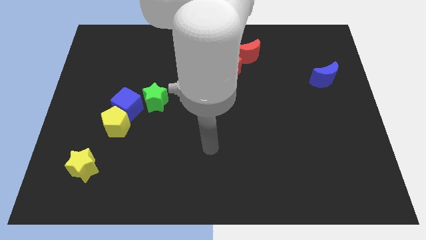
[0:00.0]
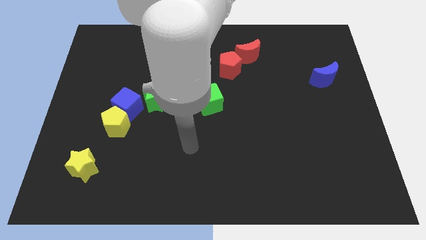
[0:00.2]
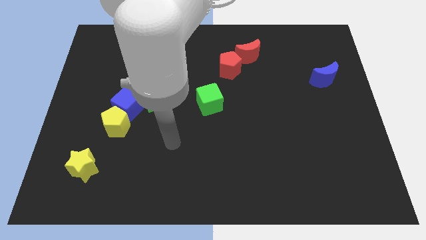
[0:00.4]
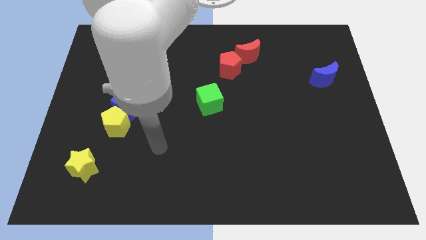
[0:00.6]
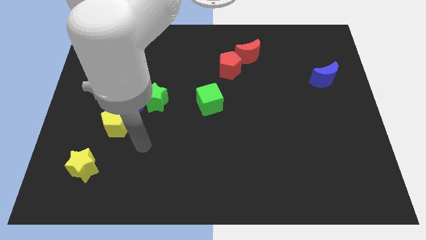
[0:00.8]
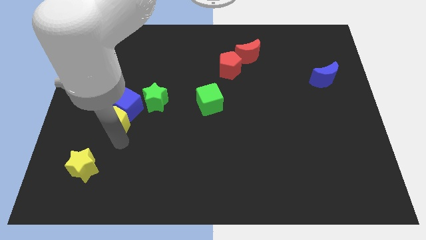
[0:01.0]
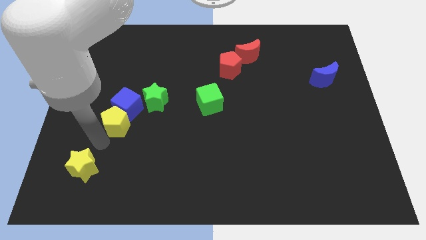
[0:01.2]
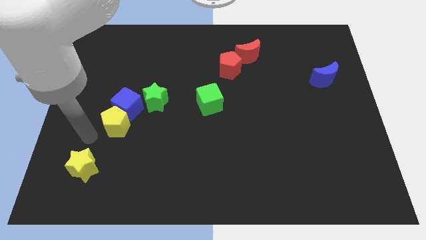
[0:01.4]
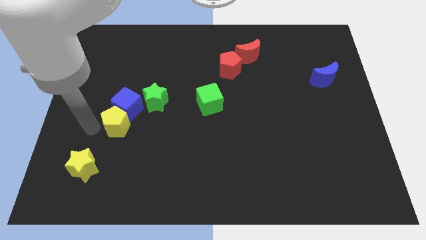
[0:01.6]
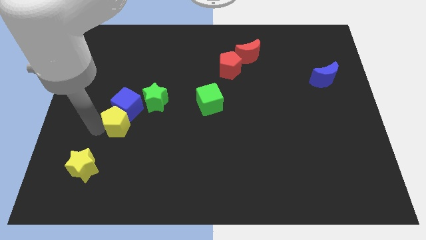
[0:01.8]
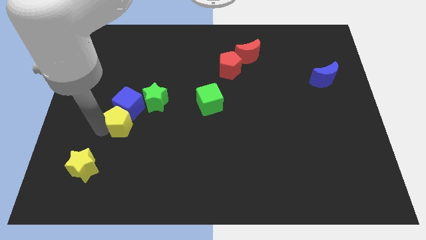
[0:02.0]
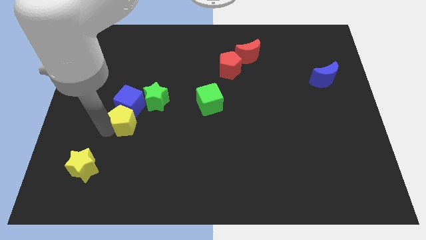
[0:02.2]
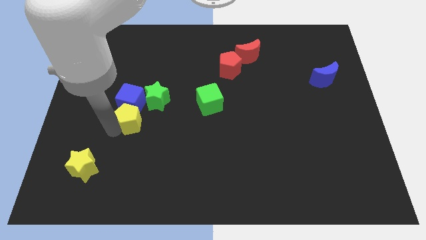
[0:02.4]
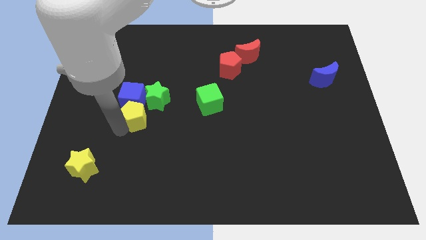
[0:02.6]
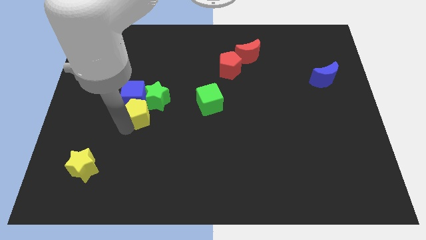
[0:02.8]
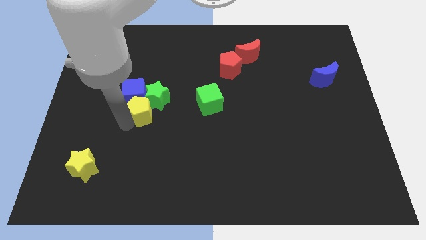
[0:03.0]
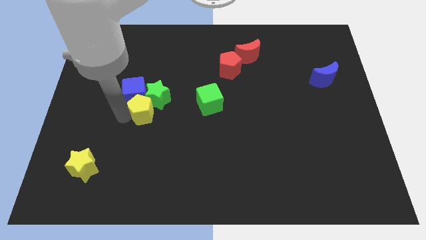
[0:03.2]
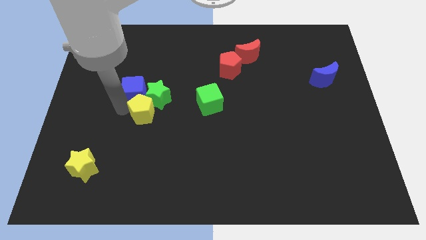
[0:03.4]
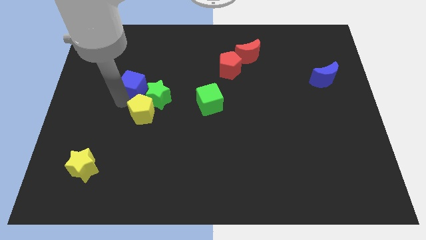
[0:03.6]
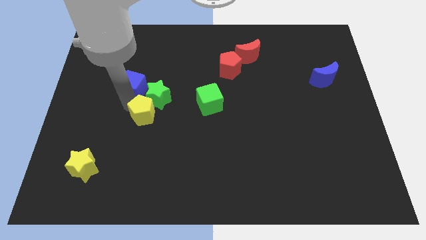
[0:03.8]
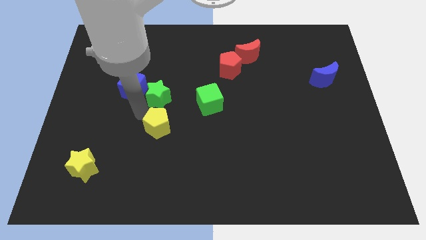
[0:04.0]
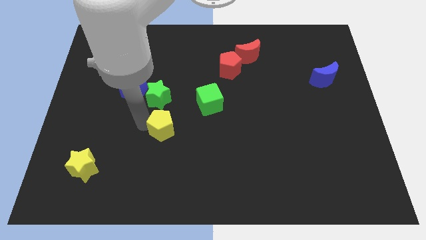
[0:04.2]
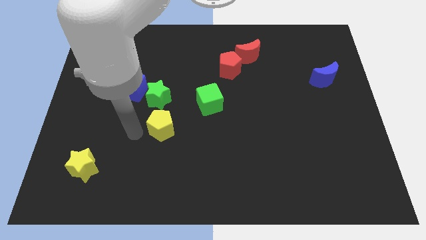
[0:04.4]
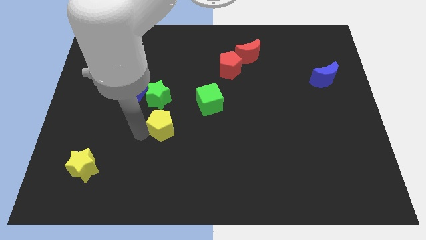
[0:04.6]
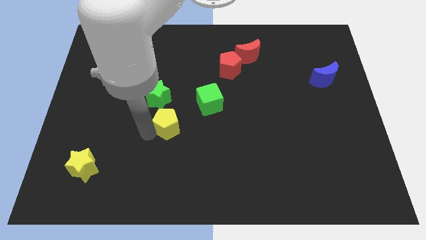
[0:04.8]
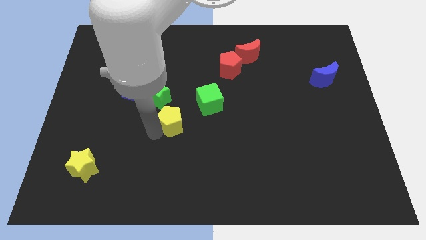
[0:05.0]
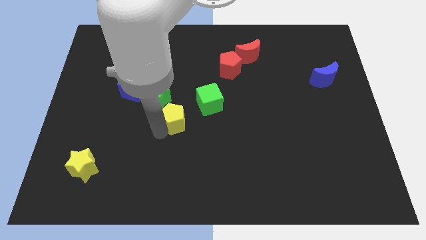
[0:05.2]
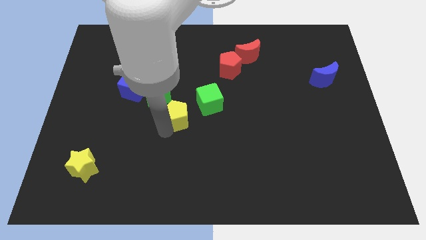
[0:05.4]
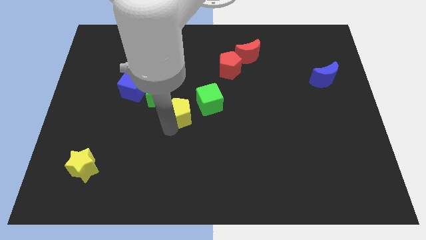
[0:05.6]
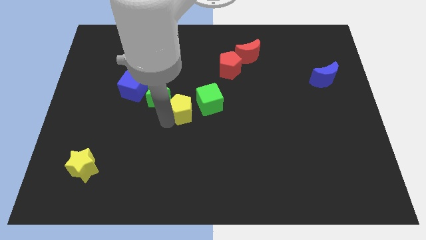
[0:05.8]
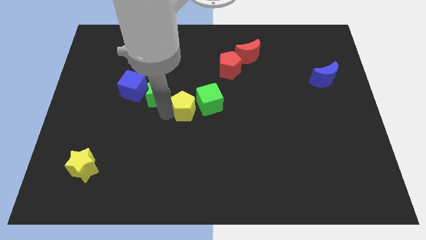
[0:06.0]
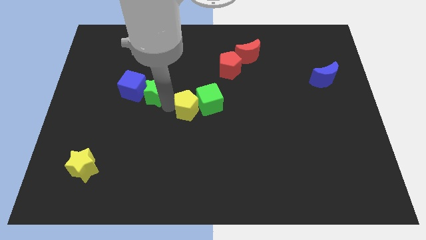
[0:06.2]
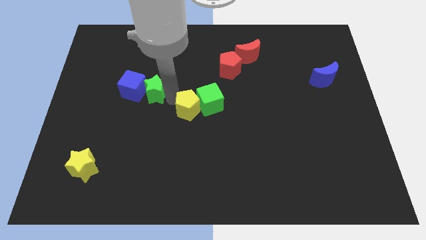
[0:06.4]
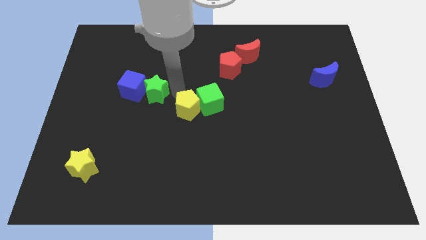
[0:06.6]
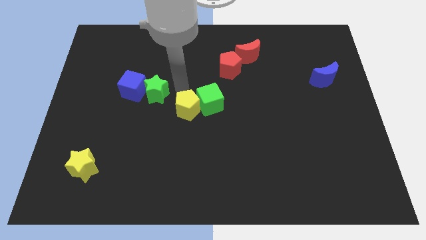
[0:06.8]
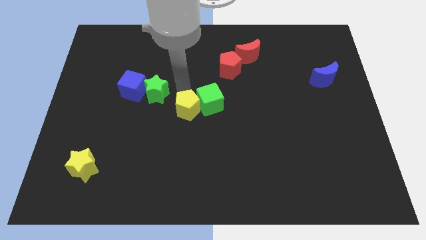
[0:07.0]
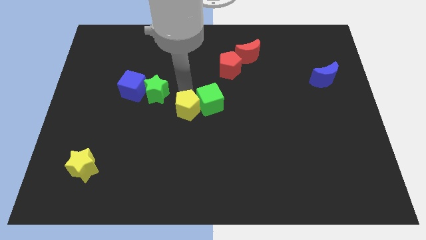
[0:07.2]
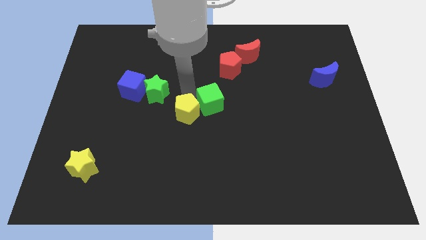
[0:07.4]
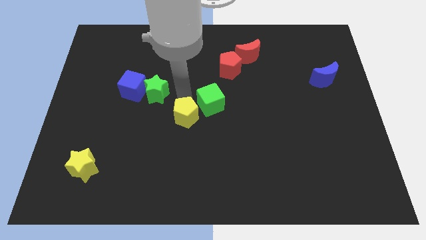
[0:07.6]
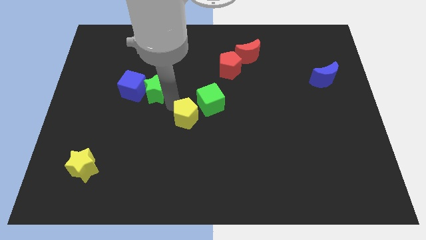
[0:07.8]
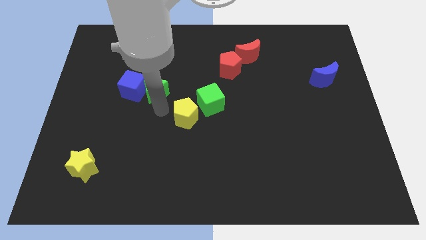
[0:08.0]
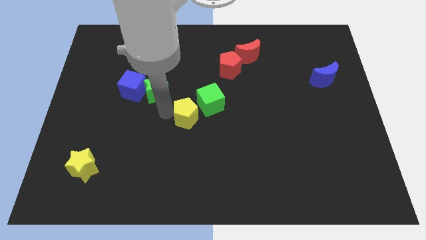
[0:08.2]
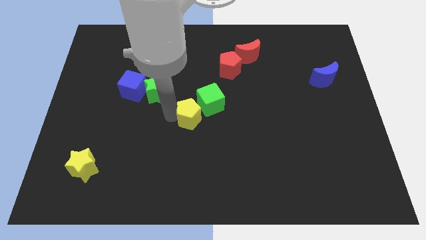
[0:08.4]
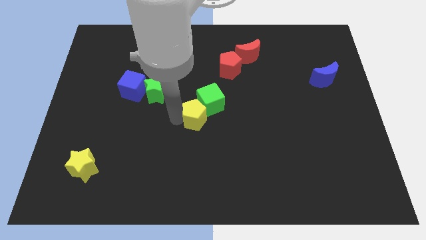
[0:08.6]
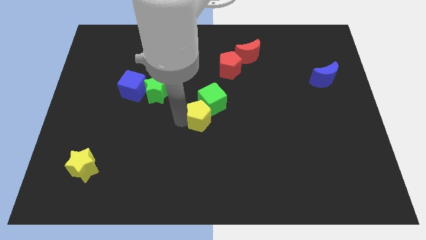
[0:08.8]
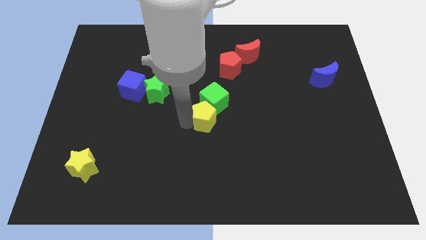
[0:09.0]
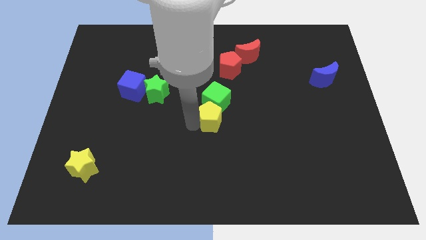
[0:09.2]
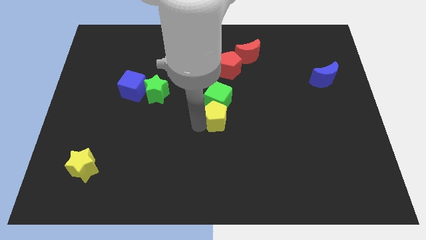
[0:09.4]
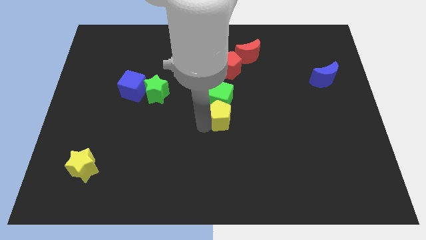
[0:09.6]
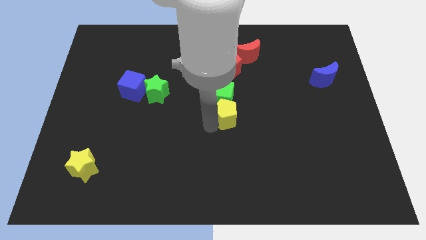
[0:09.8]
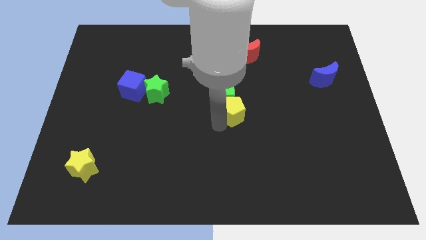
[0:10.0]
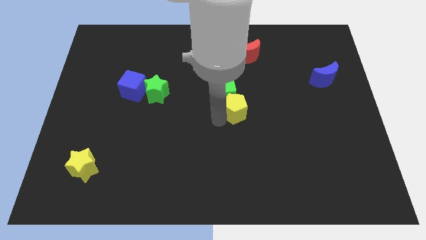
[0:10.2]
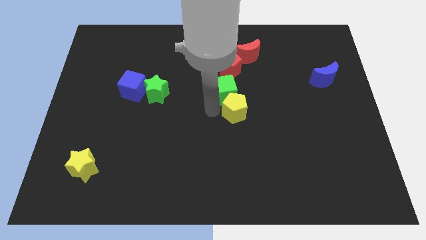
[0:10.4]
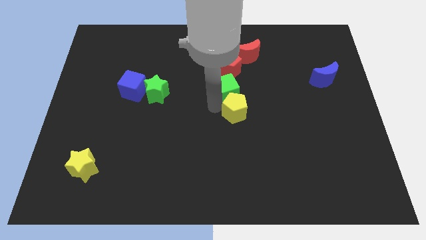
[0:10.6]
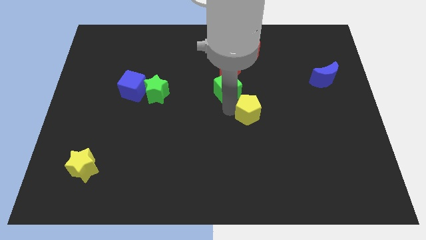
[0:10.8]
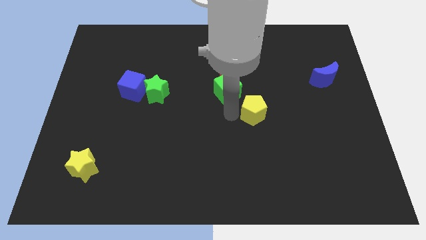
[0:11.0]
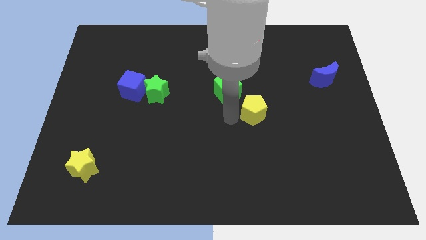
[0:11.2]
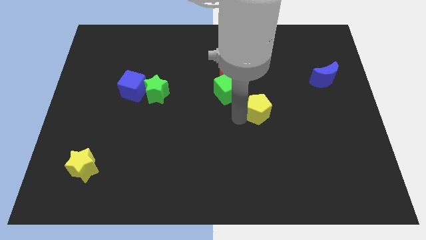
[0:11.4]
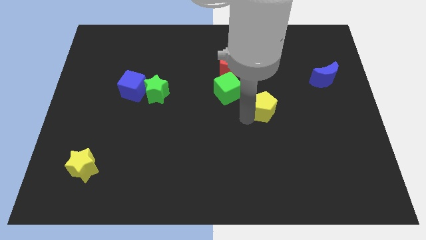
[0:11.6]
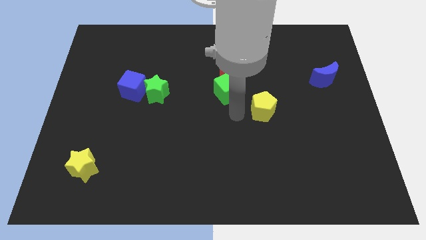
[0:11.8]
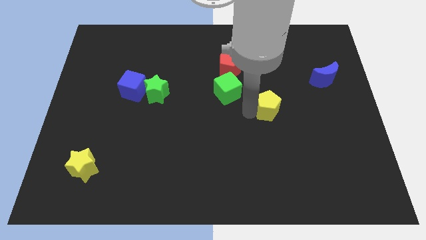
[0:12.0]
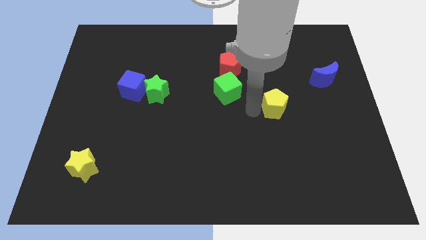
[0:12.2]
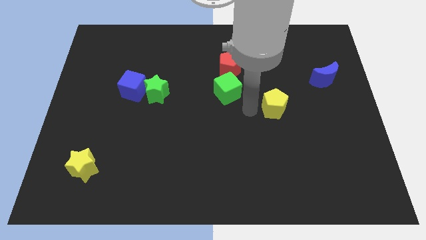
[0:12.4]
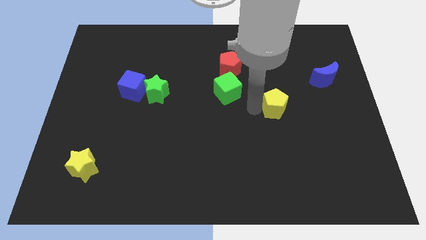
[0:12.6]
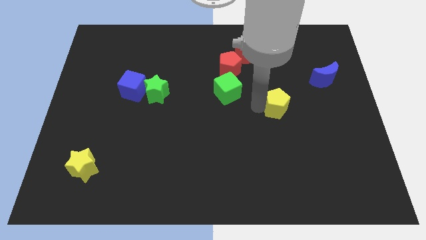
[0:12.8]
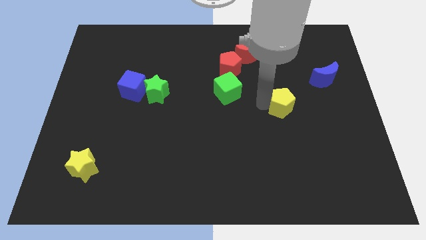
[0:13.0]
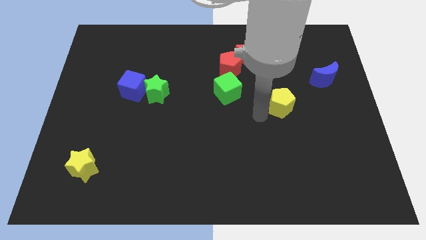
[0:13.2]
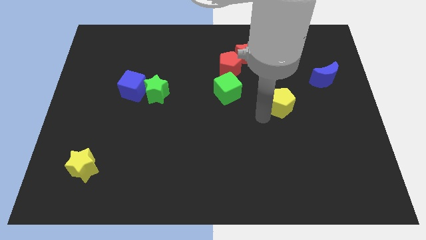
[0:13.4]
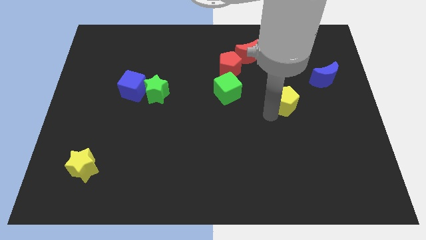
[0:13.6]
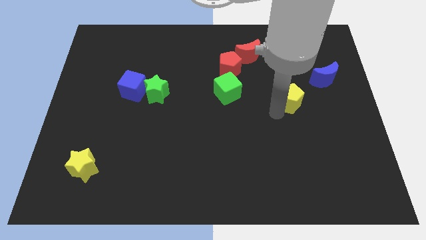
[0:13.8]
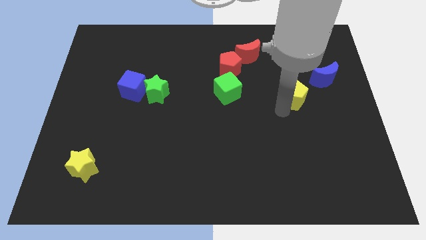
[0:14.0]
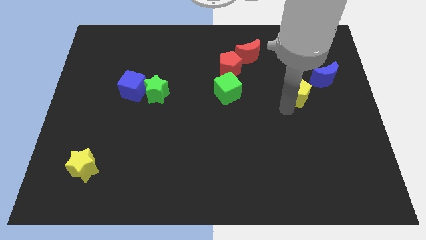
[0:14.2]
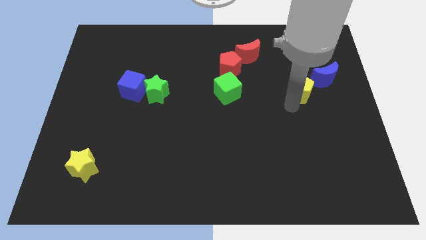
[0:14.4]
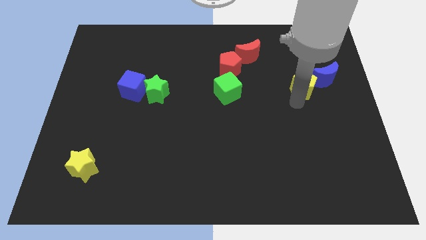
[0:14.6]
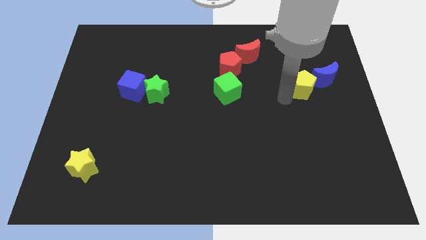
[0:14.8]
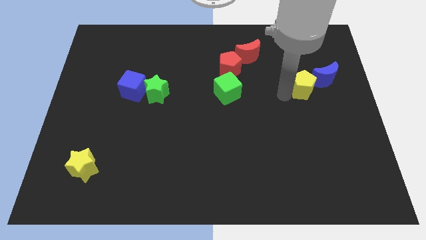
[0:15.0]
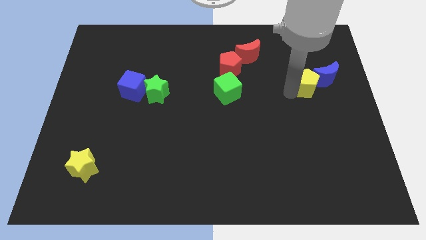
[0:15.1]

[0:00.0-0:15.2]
put the yellow pentagon towards the blue moon
